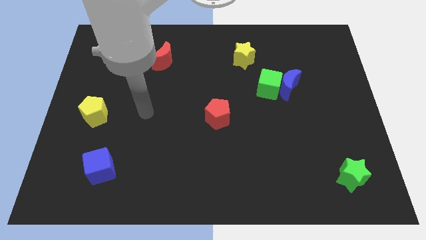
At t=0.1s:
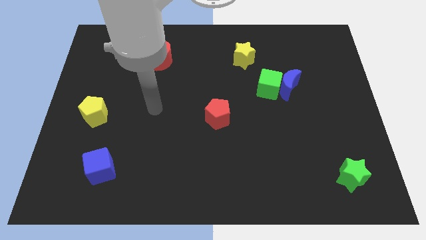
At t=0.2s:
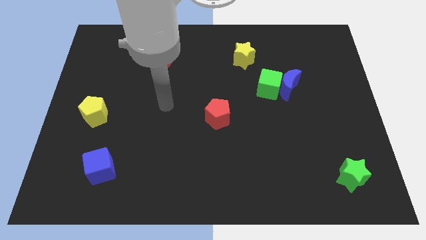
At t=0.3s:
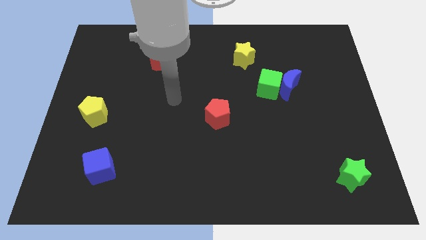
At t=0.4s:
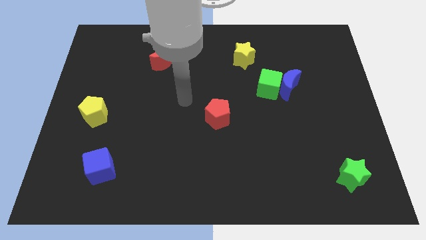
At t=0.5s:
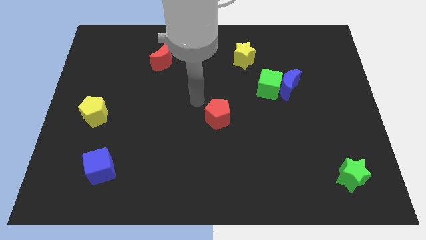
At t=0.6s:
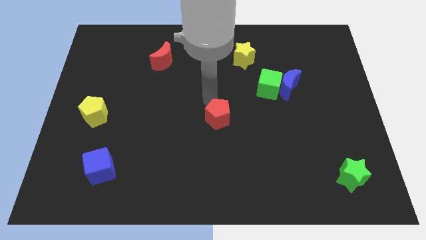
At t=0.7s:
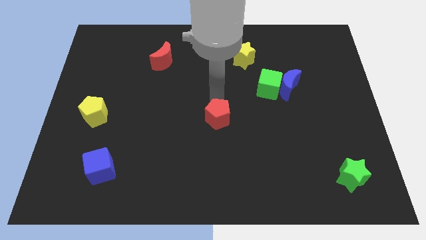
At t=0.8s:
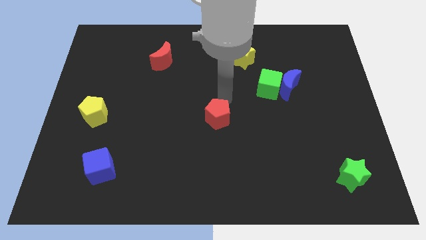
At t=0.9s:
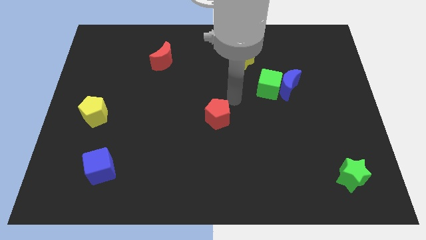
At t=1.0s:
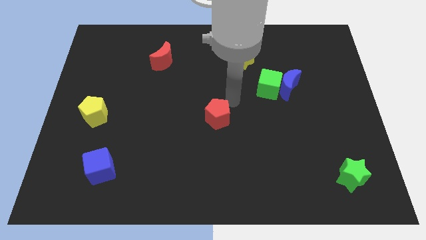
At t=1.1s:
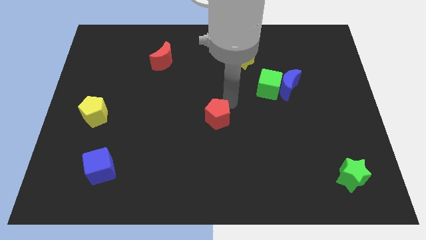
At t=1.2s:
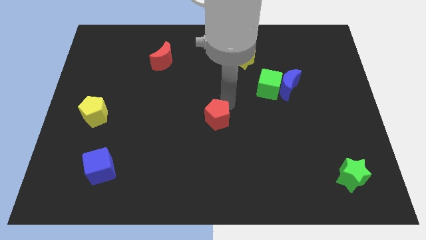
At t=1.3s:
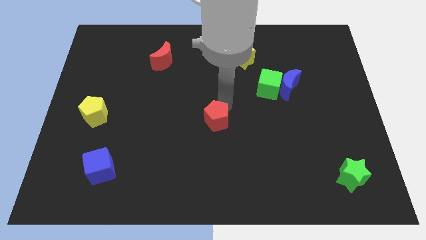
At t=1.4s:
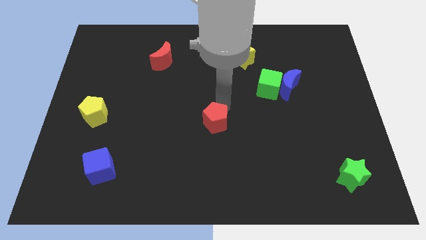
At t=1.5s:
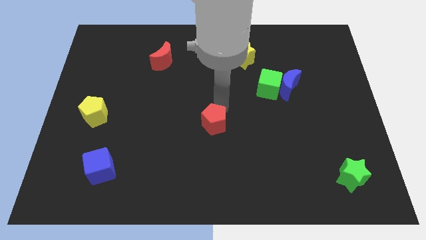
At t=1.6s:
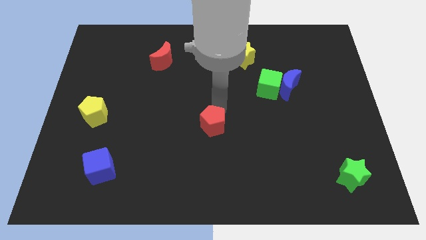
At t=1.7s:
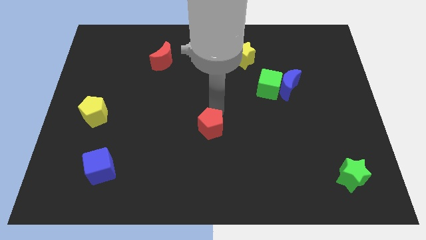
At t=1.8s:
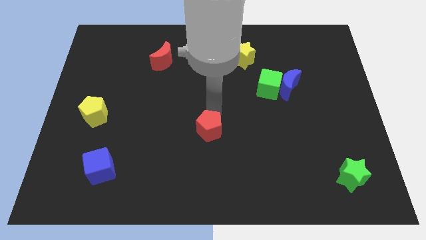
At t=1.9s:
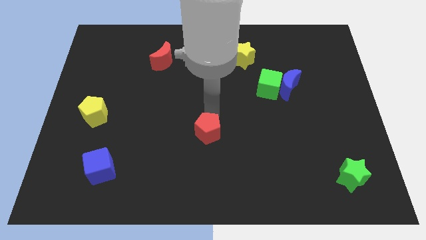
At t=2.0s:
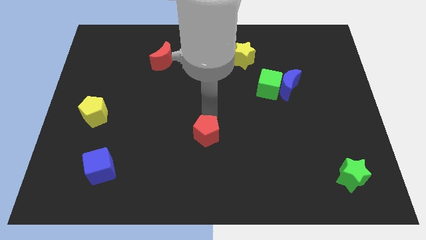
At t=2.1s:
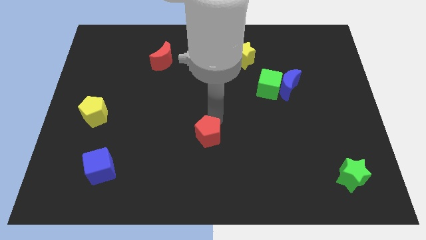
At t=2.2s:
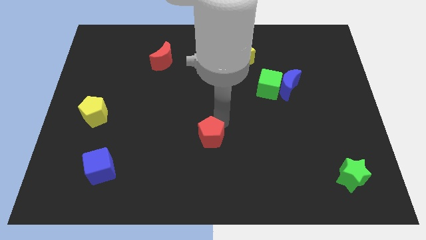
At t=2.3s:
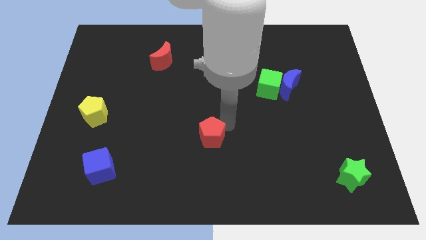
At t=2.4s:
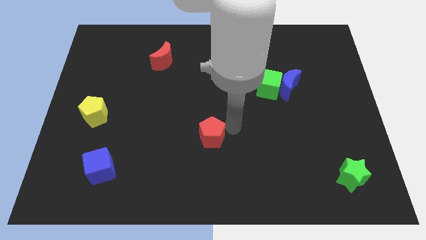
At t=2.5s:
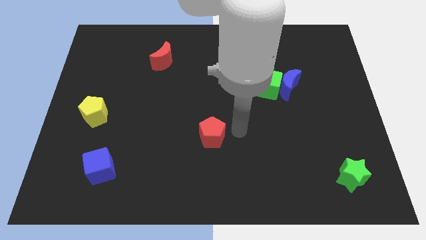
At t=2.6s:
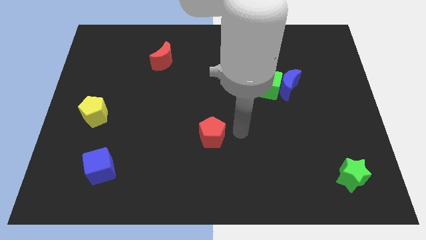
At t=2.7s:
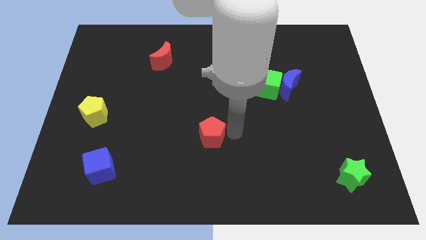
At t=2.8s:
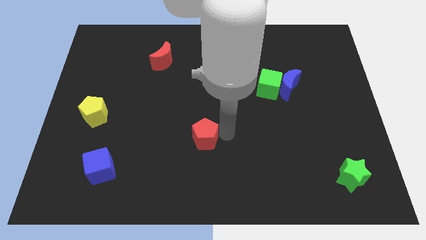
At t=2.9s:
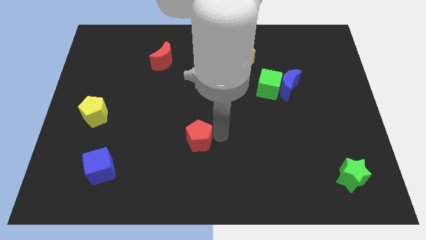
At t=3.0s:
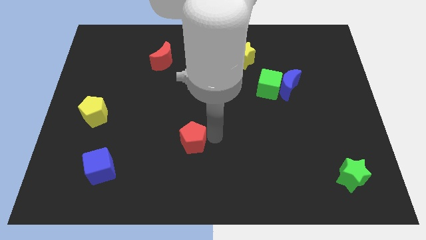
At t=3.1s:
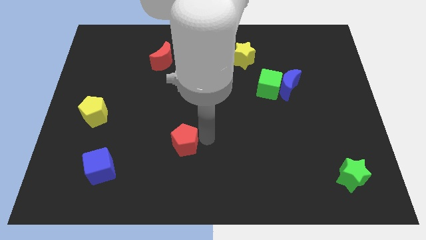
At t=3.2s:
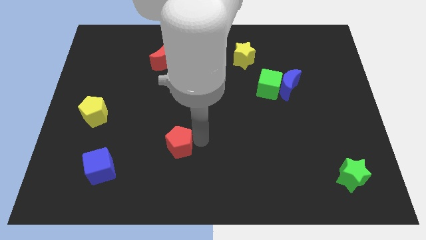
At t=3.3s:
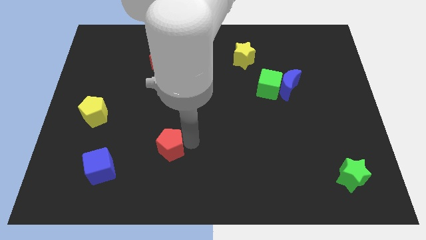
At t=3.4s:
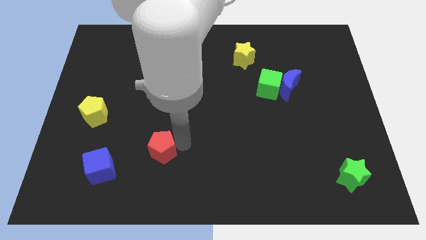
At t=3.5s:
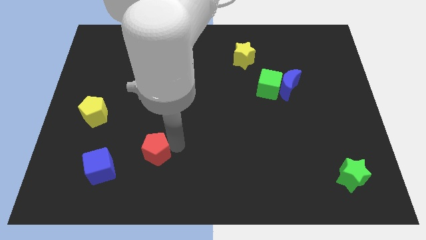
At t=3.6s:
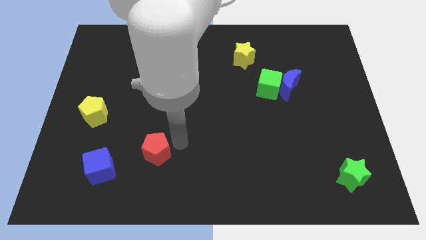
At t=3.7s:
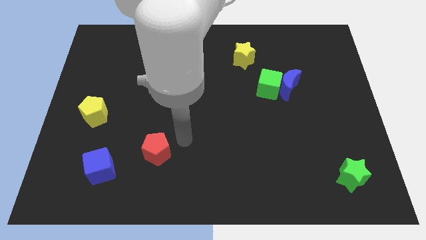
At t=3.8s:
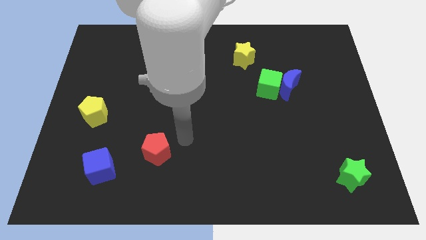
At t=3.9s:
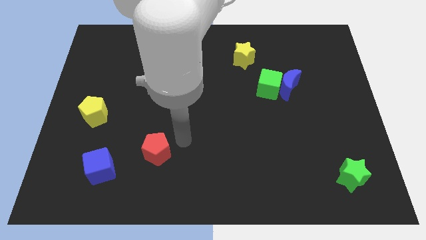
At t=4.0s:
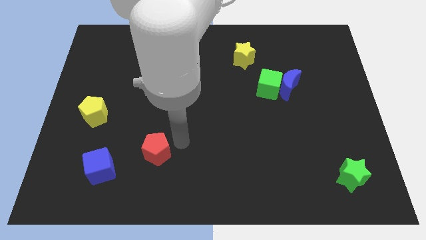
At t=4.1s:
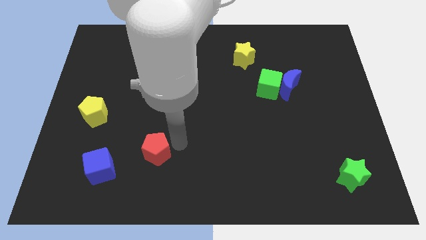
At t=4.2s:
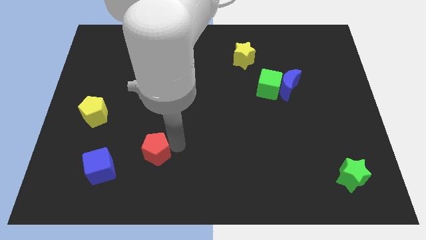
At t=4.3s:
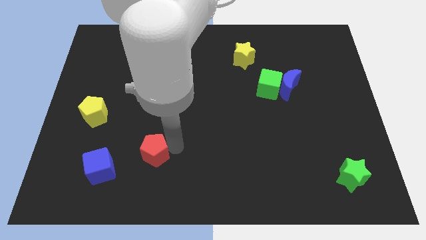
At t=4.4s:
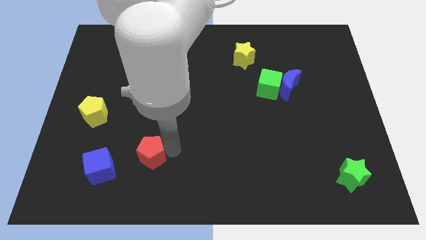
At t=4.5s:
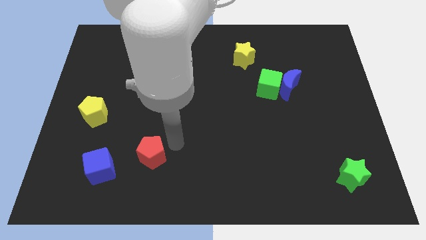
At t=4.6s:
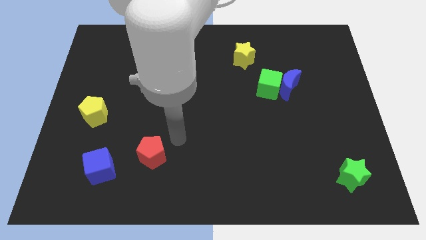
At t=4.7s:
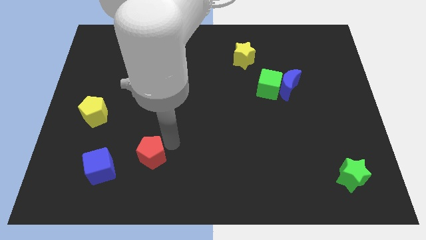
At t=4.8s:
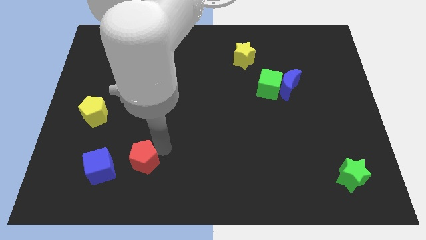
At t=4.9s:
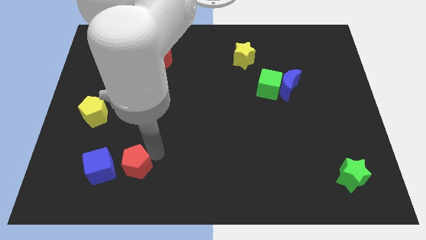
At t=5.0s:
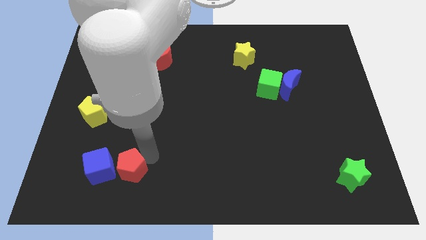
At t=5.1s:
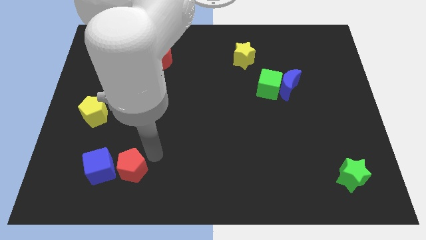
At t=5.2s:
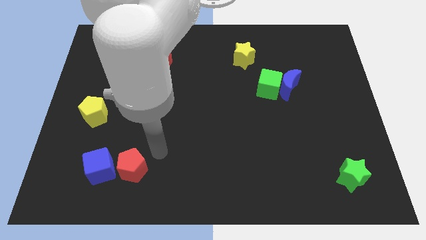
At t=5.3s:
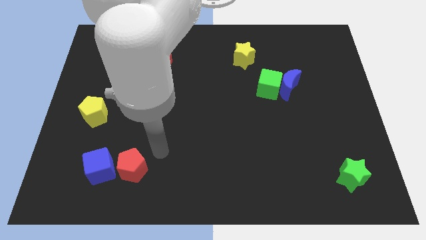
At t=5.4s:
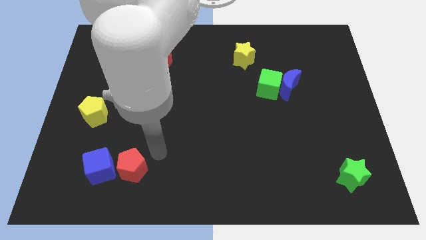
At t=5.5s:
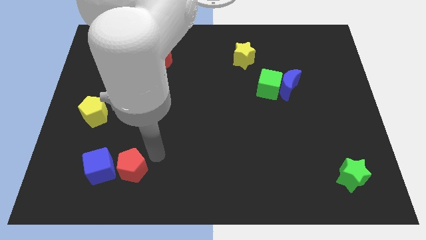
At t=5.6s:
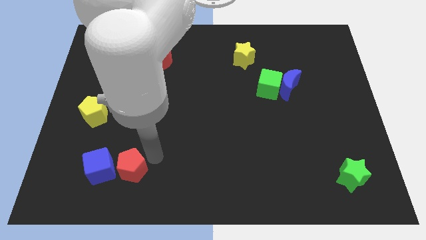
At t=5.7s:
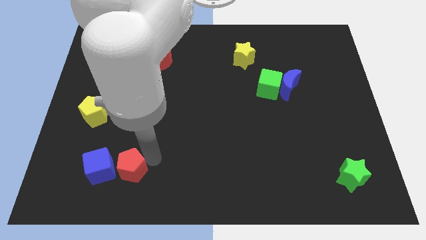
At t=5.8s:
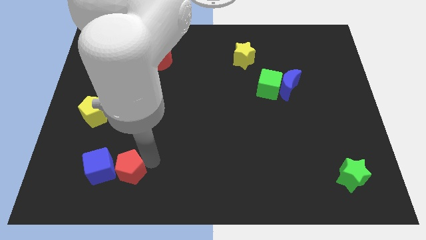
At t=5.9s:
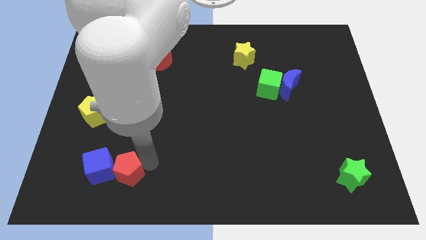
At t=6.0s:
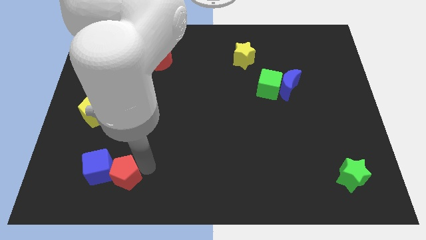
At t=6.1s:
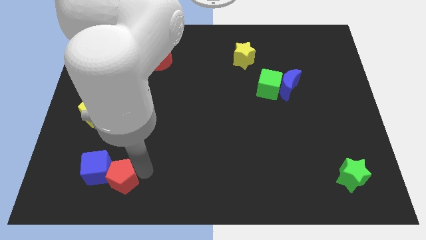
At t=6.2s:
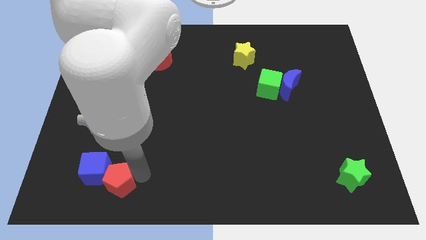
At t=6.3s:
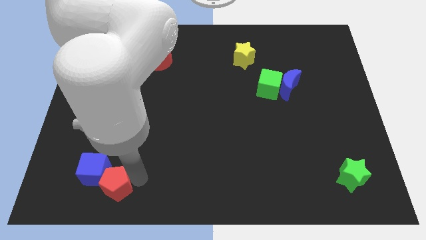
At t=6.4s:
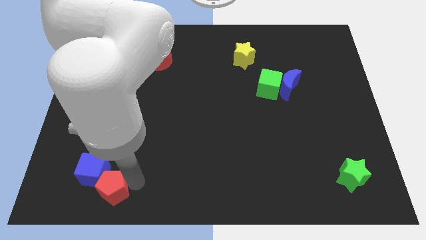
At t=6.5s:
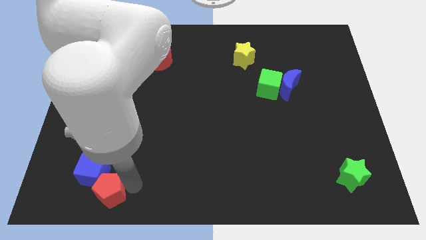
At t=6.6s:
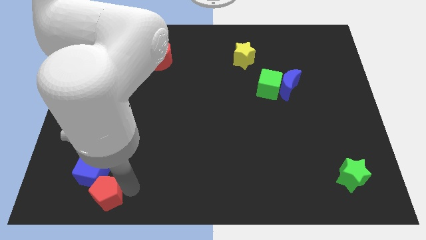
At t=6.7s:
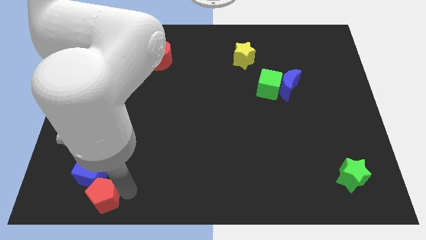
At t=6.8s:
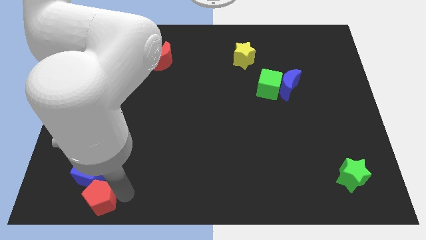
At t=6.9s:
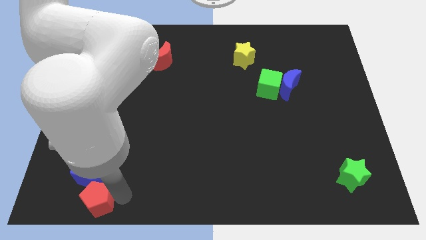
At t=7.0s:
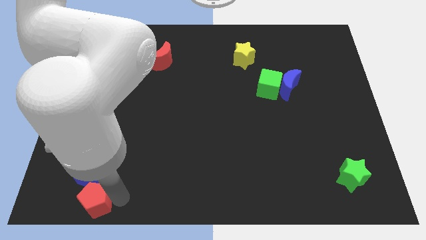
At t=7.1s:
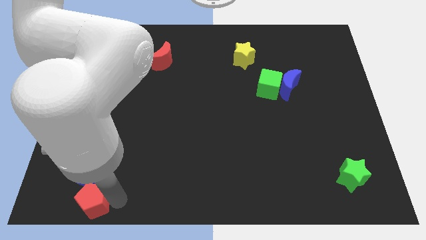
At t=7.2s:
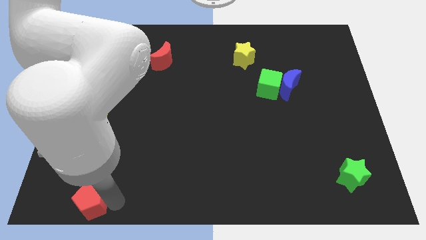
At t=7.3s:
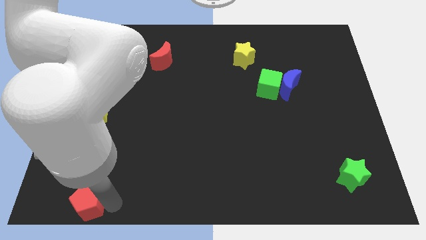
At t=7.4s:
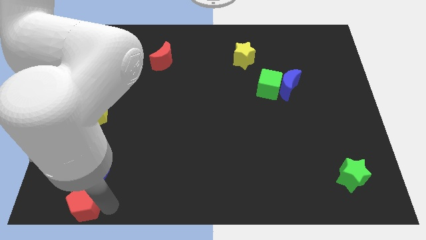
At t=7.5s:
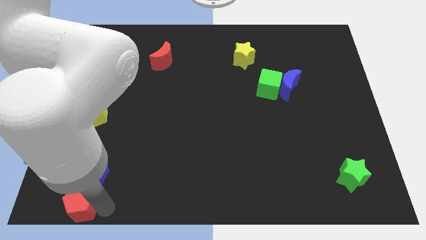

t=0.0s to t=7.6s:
slide the red pentagon to the bottom left of the board
